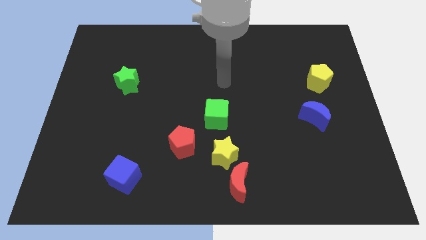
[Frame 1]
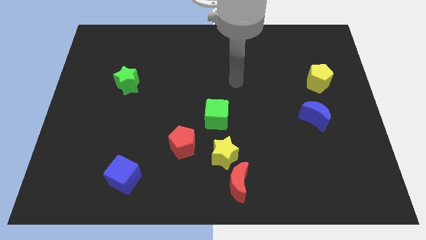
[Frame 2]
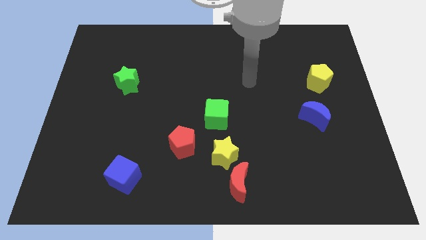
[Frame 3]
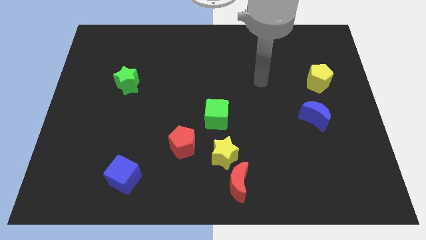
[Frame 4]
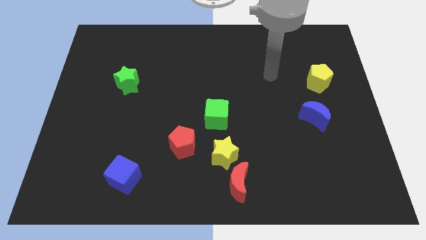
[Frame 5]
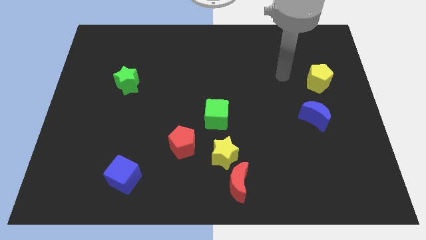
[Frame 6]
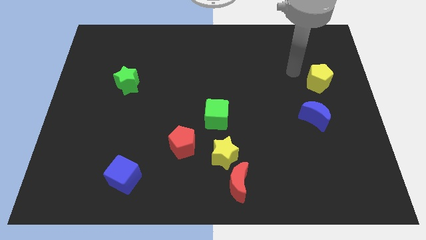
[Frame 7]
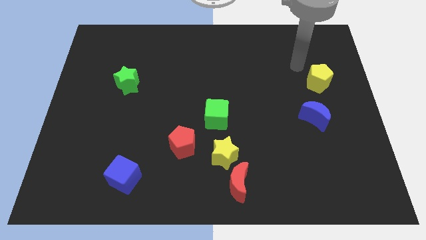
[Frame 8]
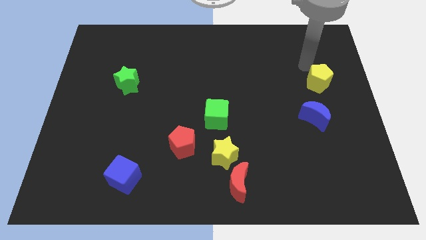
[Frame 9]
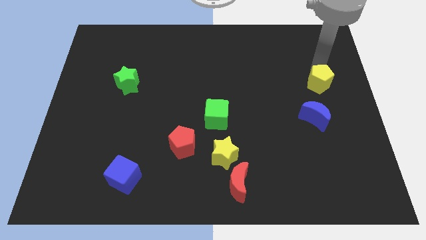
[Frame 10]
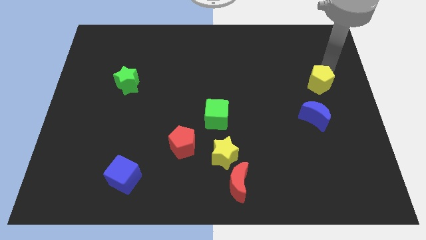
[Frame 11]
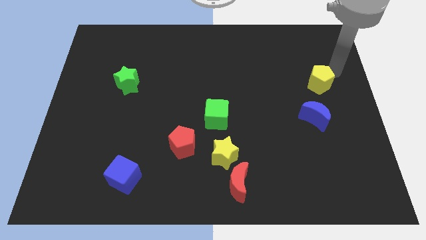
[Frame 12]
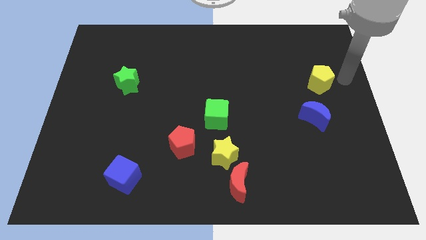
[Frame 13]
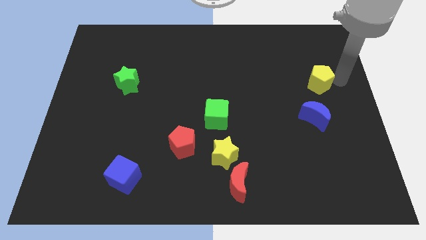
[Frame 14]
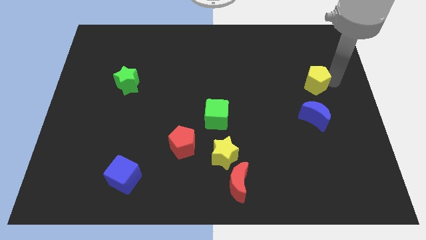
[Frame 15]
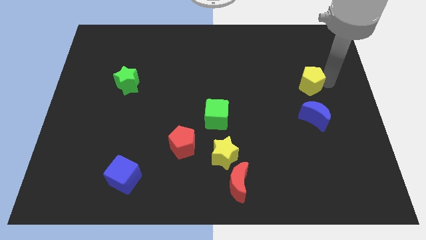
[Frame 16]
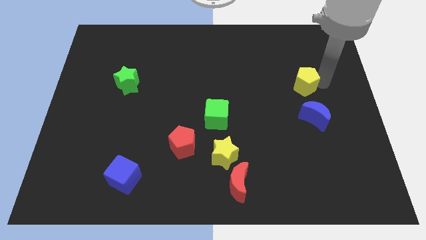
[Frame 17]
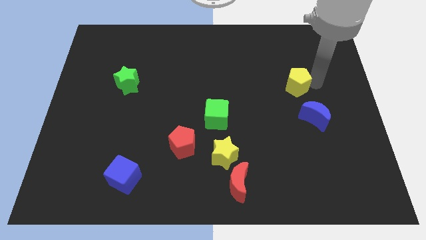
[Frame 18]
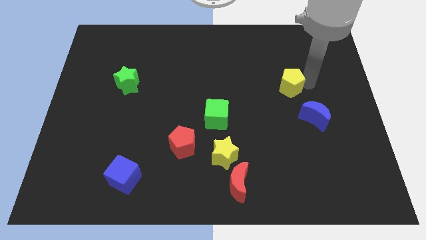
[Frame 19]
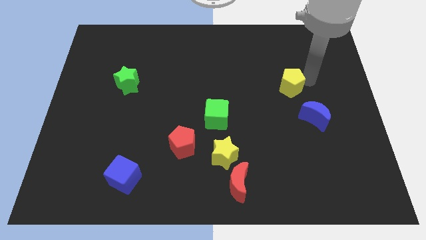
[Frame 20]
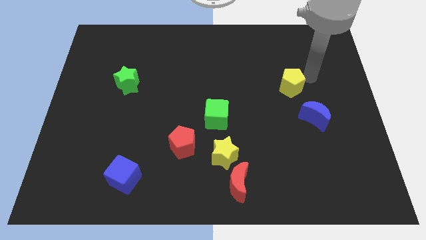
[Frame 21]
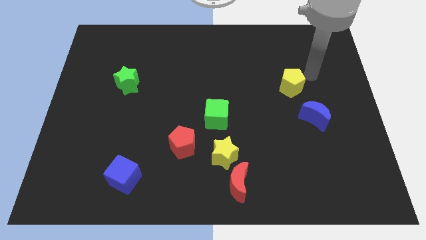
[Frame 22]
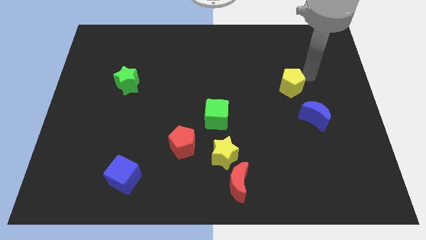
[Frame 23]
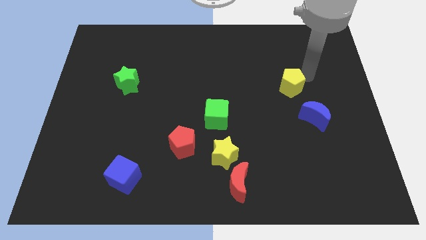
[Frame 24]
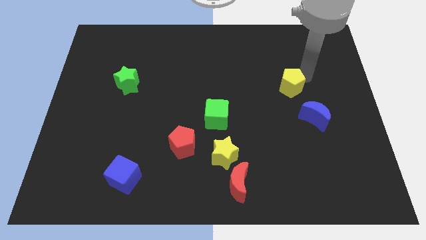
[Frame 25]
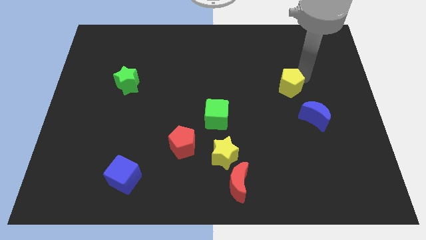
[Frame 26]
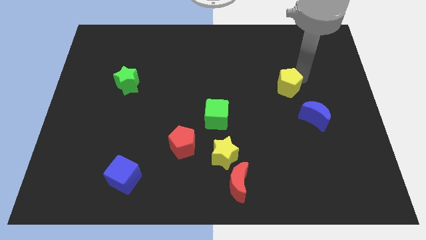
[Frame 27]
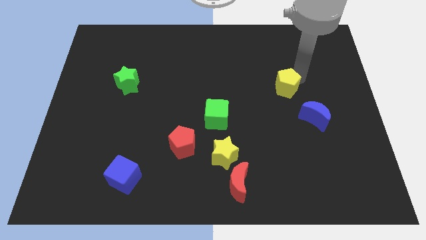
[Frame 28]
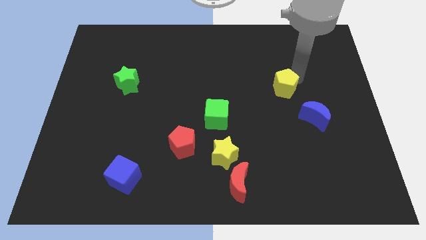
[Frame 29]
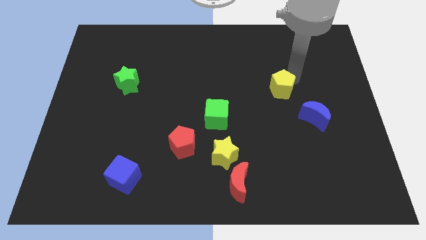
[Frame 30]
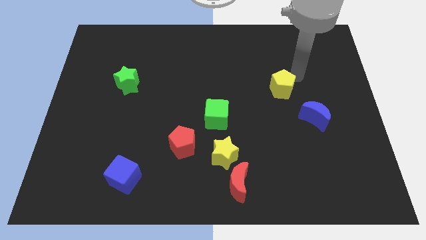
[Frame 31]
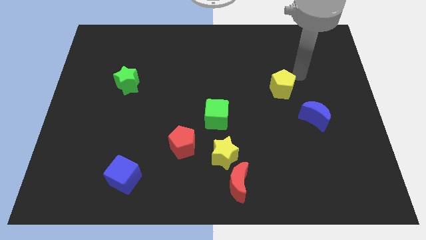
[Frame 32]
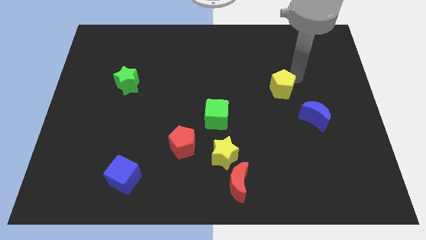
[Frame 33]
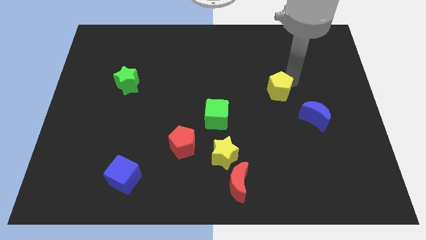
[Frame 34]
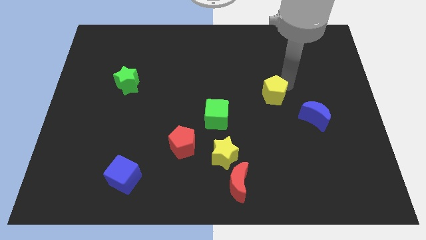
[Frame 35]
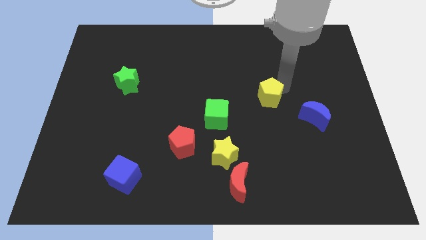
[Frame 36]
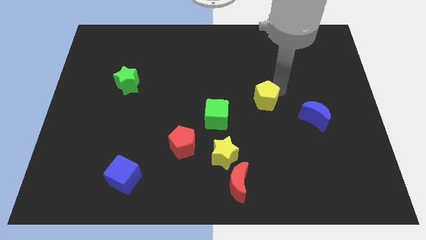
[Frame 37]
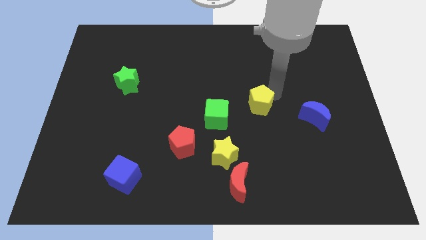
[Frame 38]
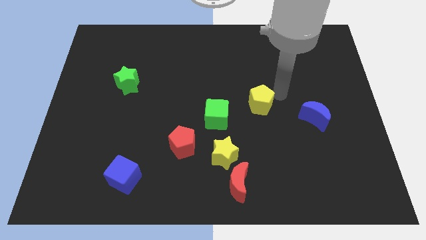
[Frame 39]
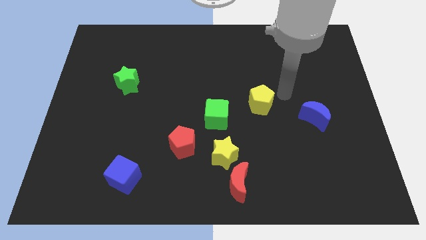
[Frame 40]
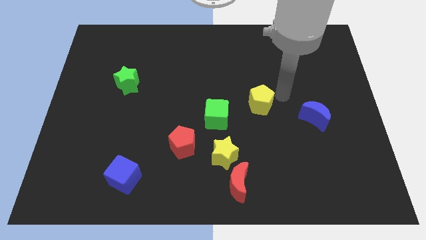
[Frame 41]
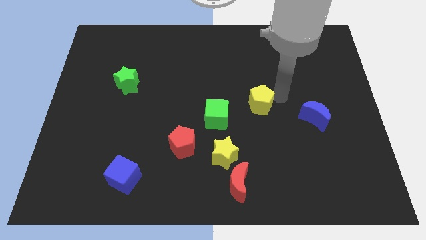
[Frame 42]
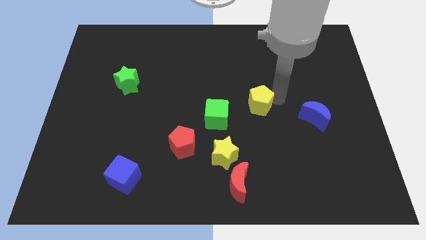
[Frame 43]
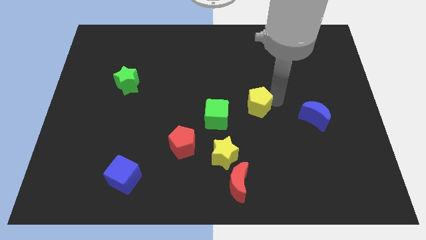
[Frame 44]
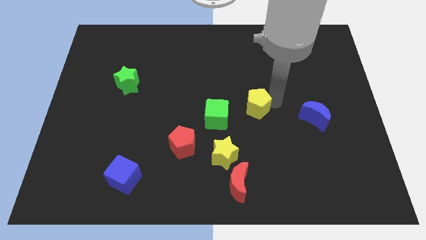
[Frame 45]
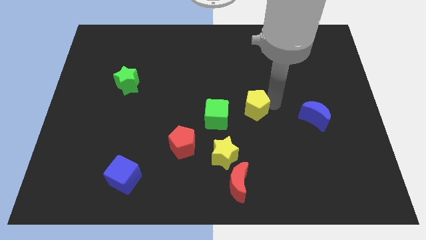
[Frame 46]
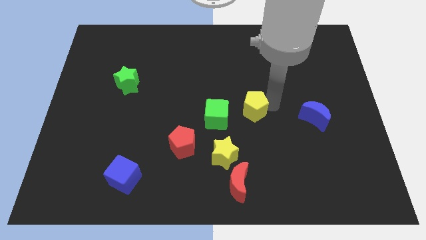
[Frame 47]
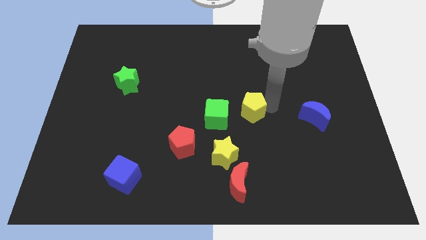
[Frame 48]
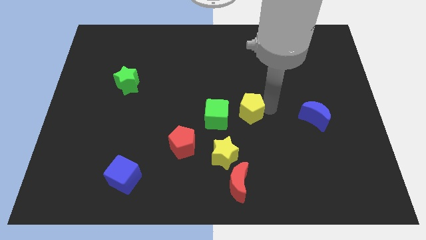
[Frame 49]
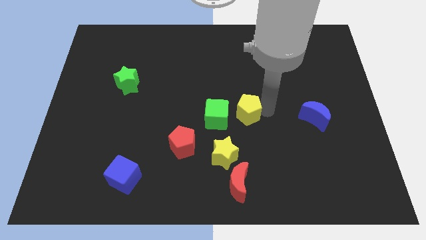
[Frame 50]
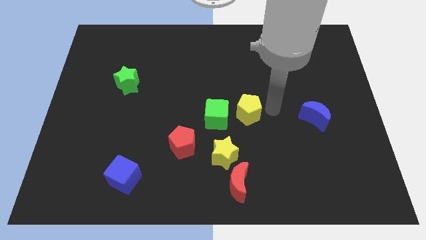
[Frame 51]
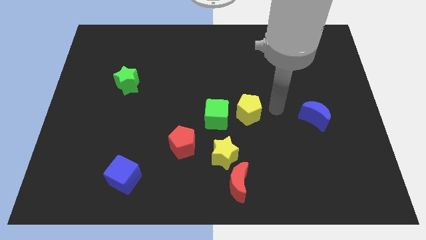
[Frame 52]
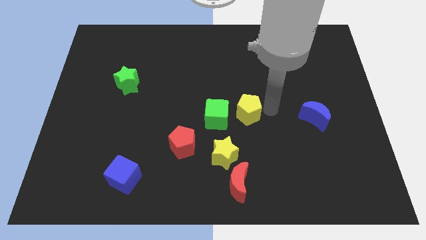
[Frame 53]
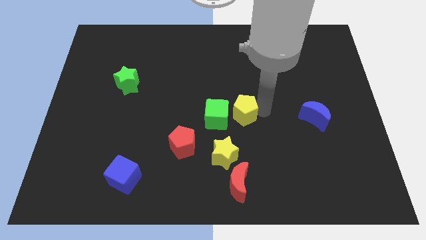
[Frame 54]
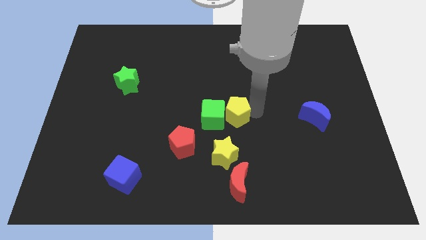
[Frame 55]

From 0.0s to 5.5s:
slide the yellow pentagon next to the green cube

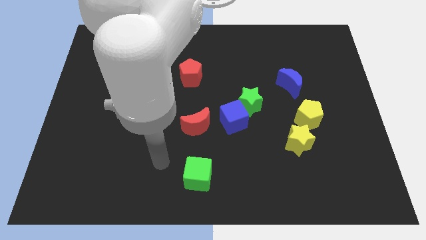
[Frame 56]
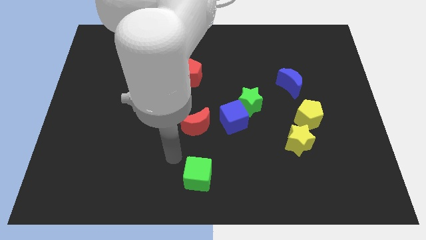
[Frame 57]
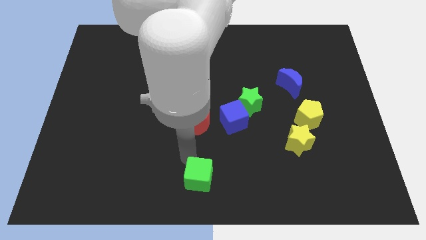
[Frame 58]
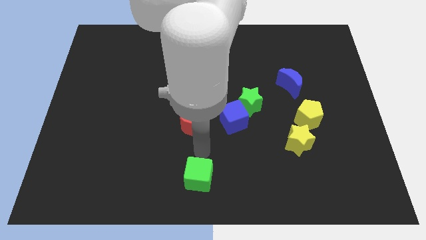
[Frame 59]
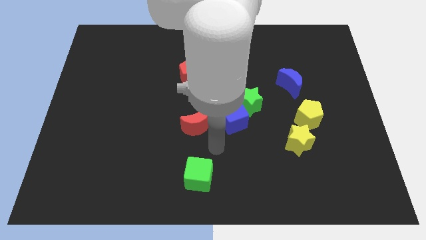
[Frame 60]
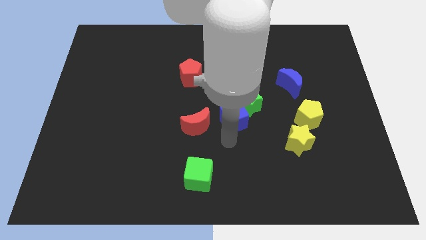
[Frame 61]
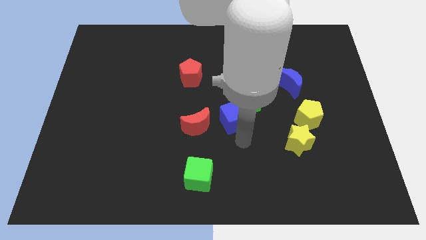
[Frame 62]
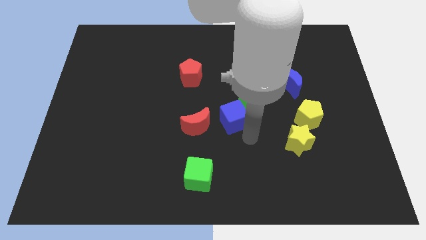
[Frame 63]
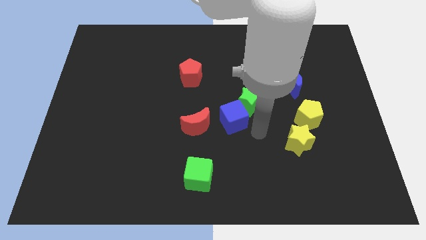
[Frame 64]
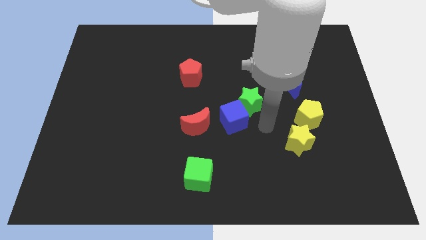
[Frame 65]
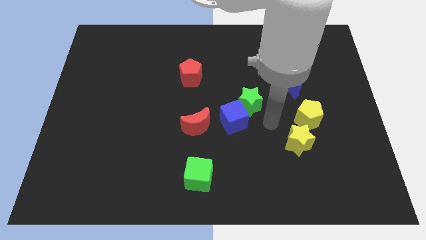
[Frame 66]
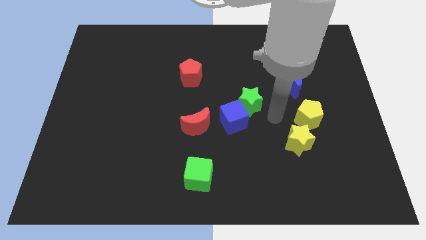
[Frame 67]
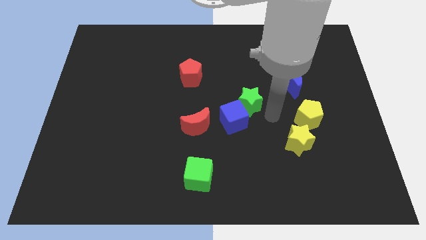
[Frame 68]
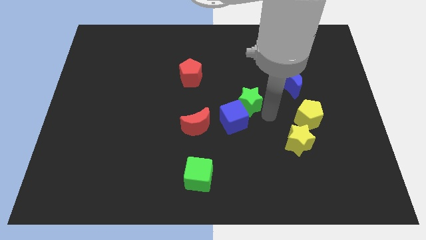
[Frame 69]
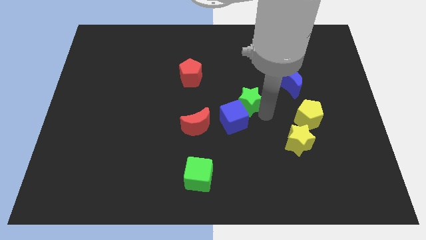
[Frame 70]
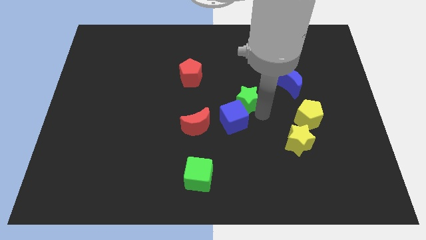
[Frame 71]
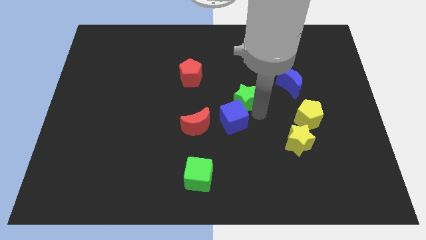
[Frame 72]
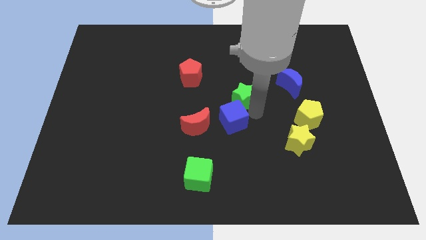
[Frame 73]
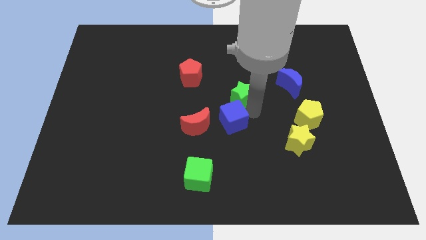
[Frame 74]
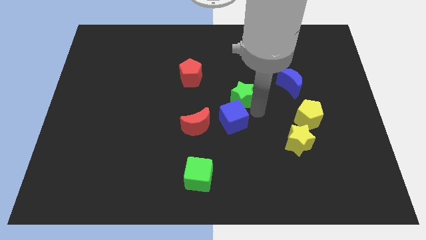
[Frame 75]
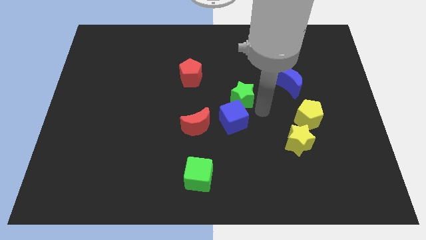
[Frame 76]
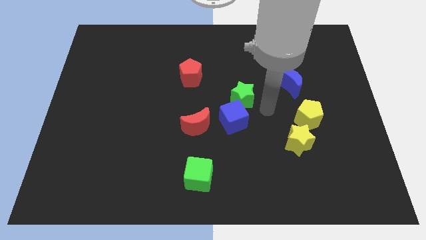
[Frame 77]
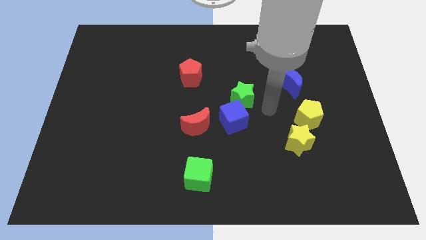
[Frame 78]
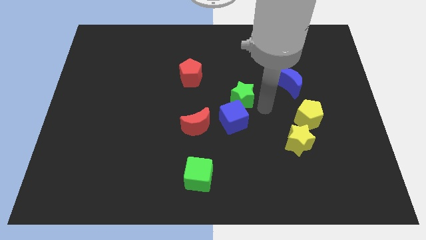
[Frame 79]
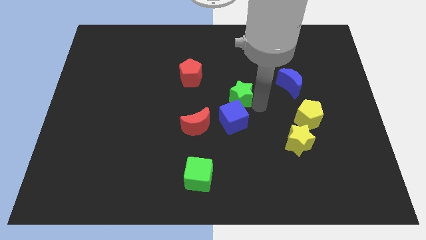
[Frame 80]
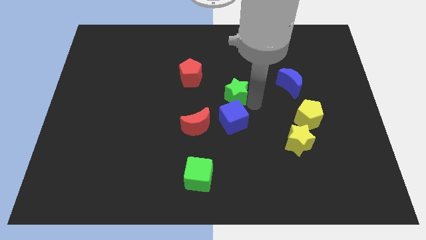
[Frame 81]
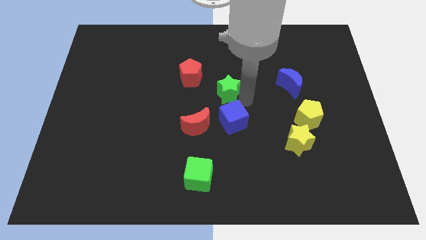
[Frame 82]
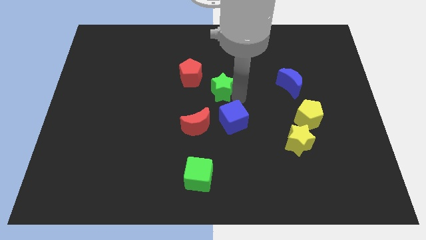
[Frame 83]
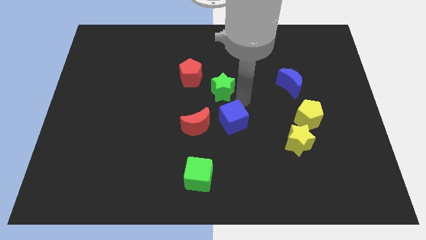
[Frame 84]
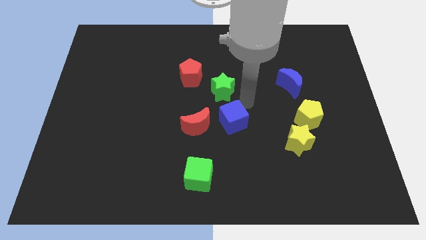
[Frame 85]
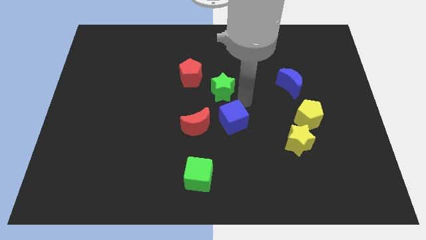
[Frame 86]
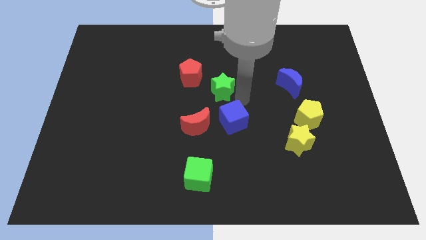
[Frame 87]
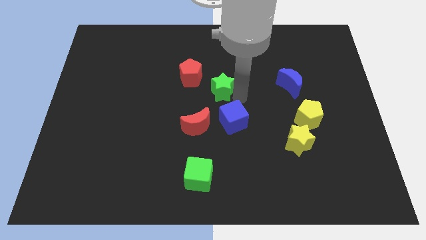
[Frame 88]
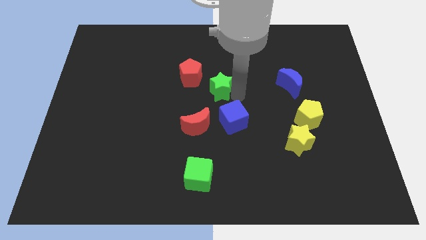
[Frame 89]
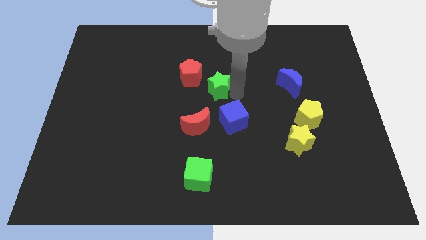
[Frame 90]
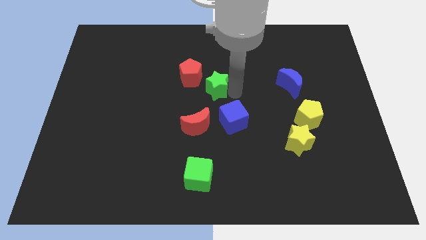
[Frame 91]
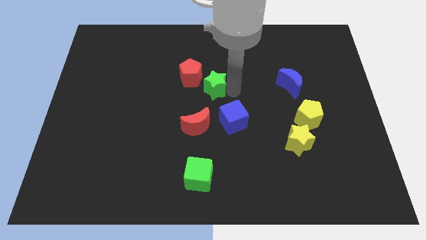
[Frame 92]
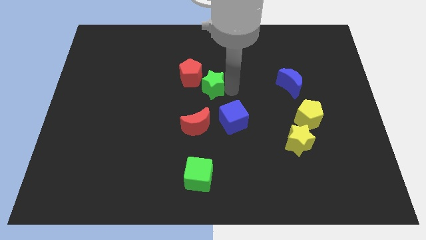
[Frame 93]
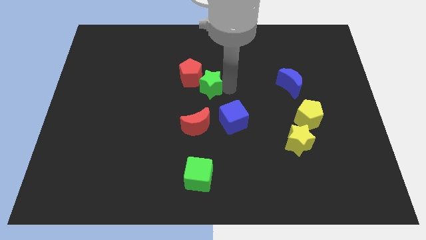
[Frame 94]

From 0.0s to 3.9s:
push the green star close to the red pentagon
